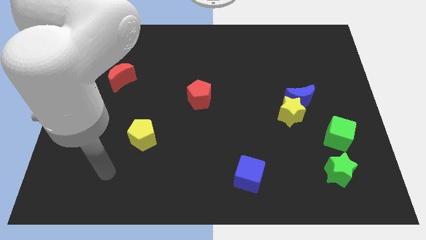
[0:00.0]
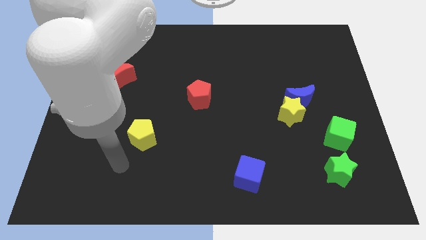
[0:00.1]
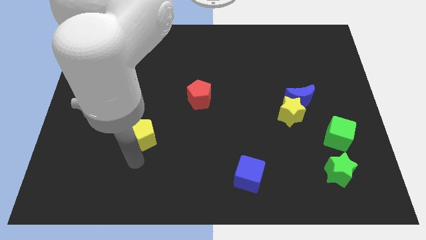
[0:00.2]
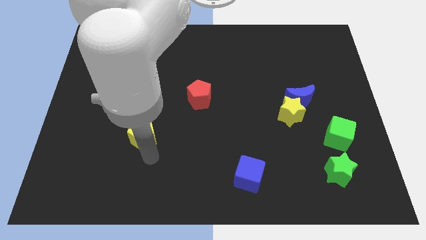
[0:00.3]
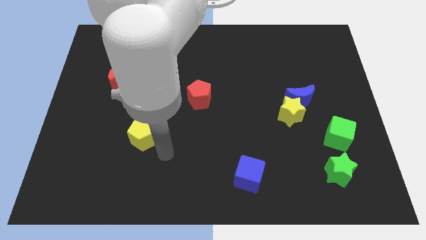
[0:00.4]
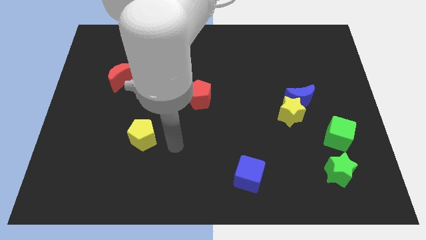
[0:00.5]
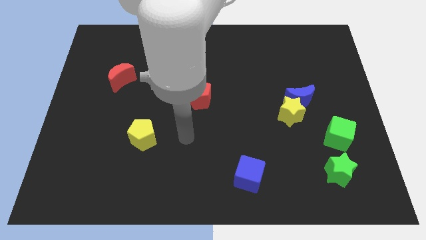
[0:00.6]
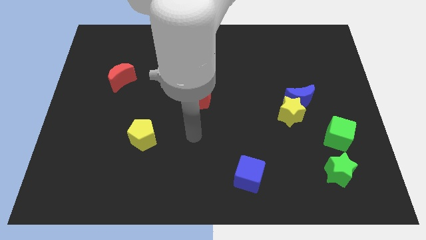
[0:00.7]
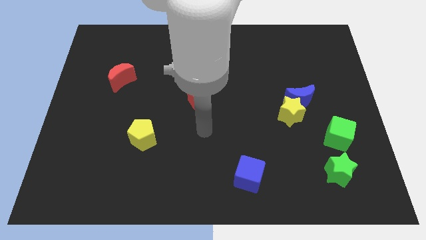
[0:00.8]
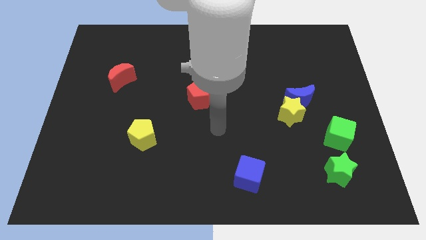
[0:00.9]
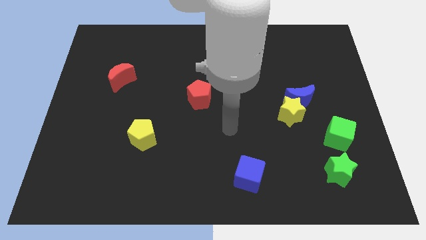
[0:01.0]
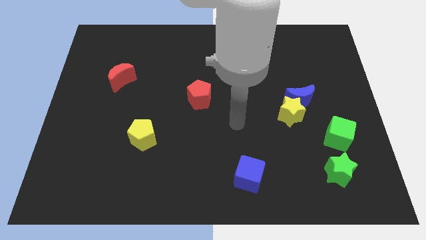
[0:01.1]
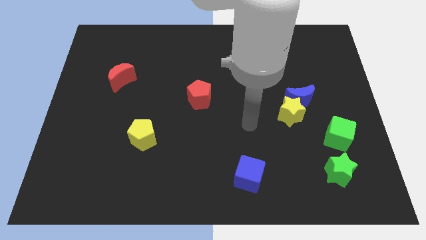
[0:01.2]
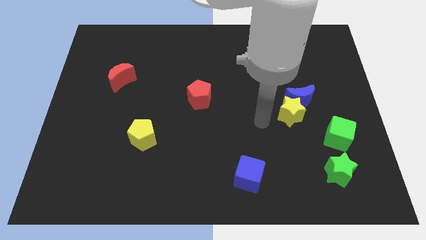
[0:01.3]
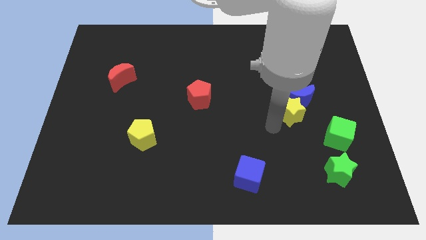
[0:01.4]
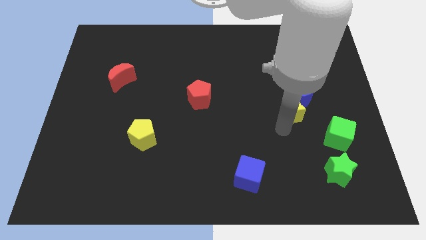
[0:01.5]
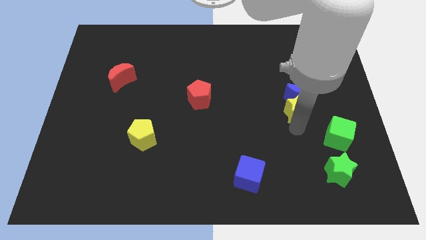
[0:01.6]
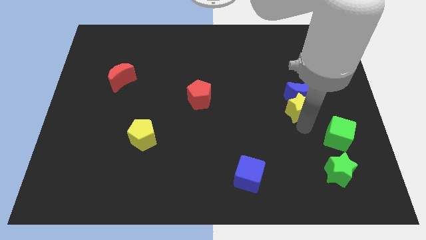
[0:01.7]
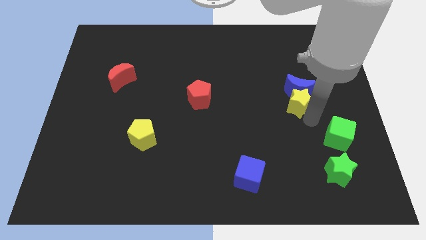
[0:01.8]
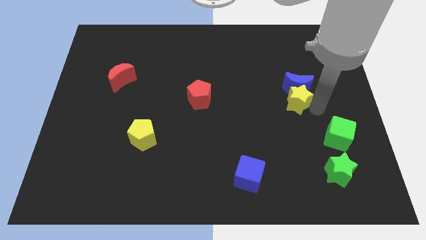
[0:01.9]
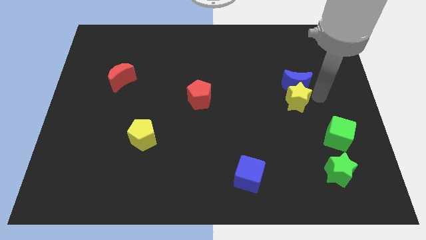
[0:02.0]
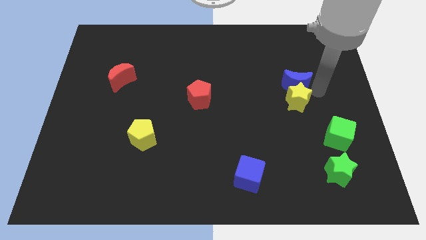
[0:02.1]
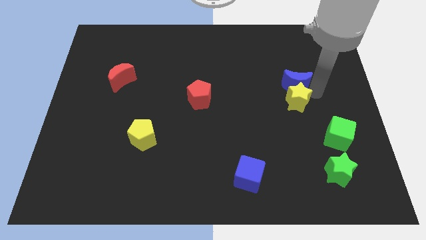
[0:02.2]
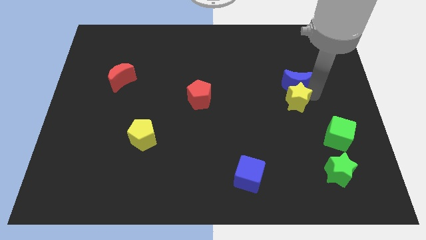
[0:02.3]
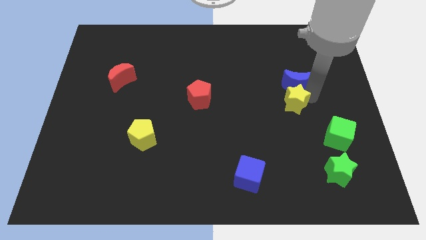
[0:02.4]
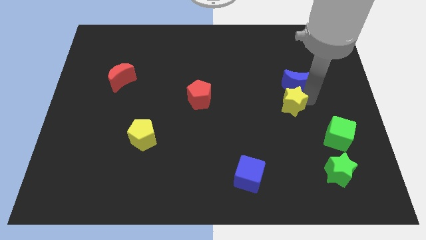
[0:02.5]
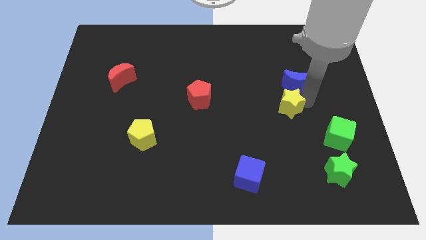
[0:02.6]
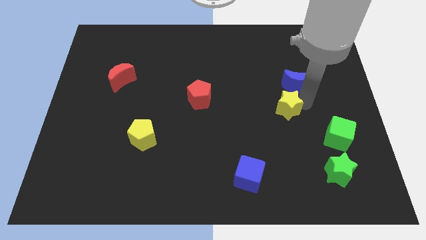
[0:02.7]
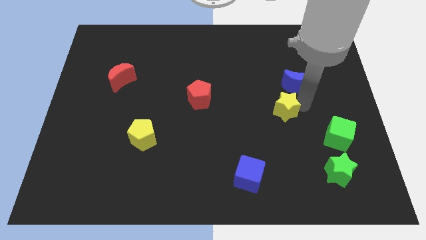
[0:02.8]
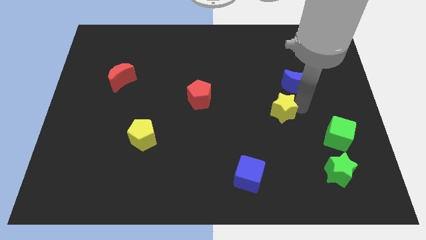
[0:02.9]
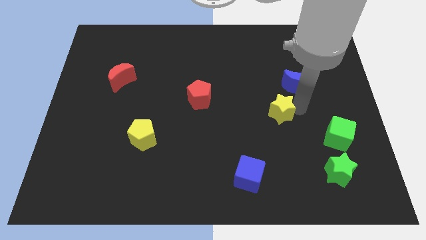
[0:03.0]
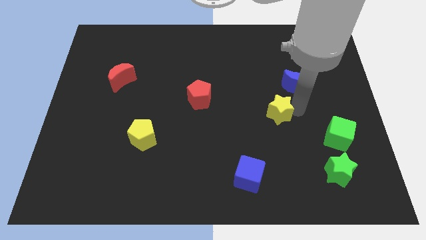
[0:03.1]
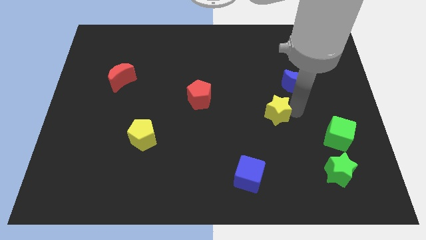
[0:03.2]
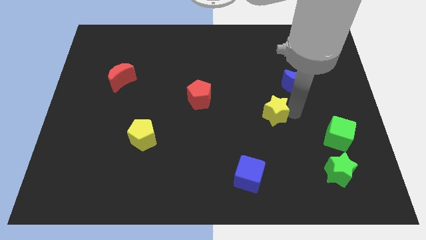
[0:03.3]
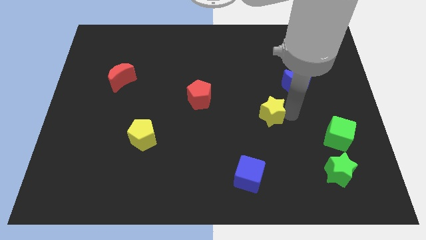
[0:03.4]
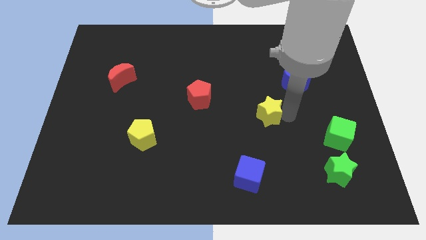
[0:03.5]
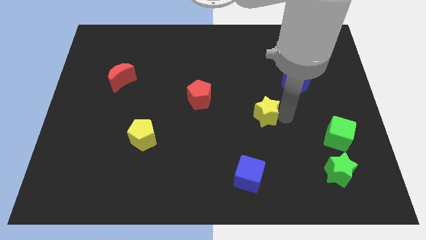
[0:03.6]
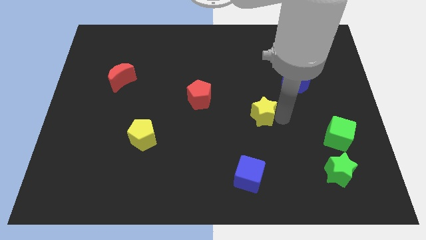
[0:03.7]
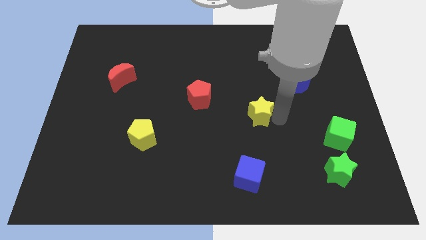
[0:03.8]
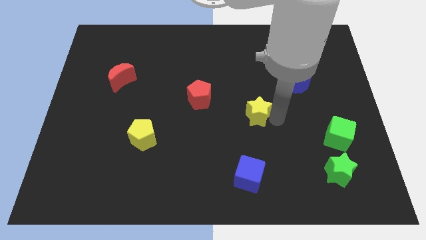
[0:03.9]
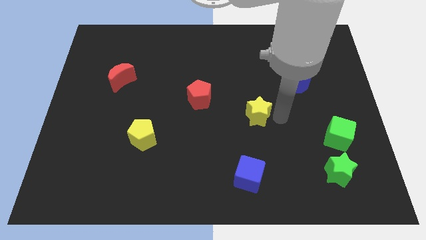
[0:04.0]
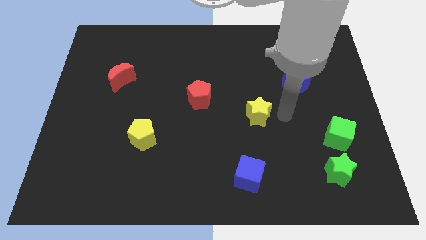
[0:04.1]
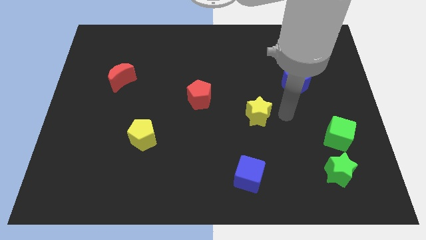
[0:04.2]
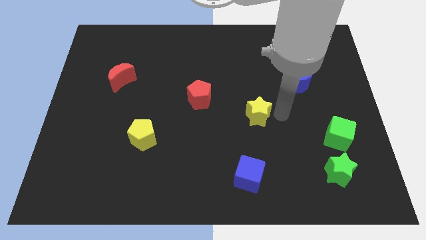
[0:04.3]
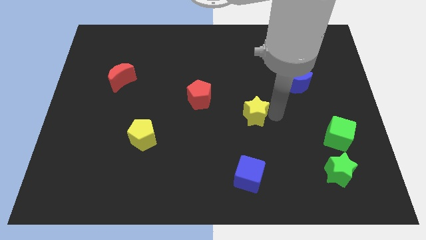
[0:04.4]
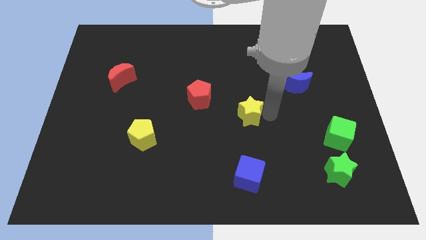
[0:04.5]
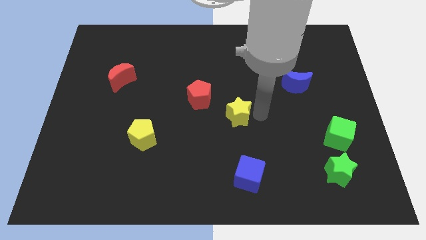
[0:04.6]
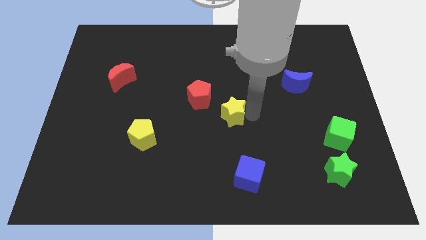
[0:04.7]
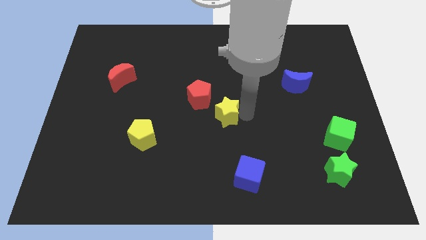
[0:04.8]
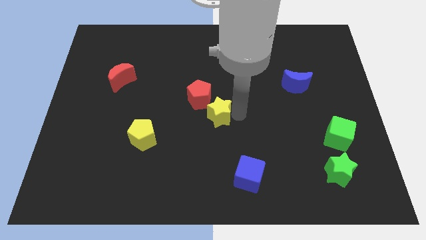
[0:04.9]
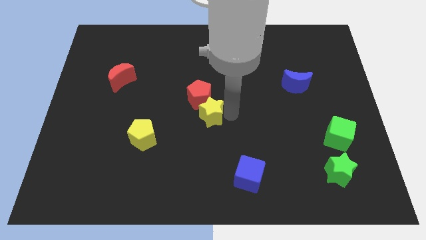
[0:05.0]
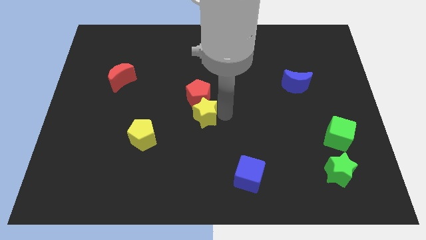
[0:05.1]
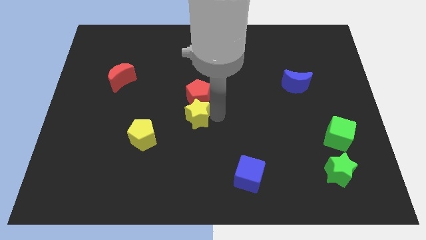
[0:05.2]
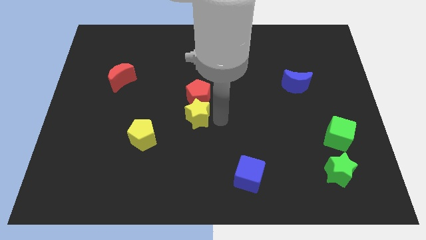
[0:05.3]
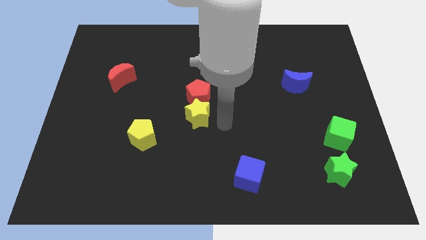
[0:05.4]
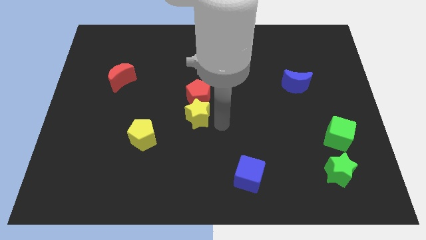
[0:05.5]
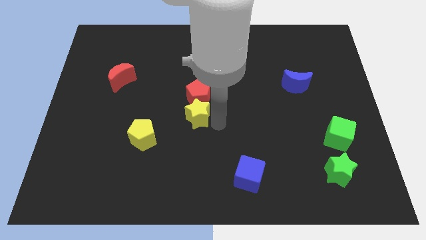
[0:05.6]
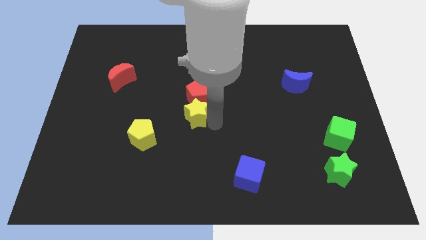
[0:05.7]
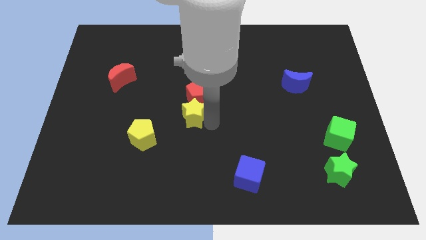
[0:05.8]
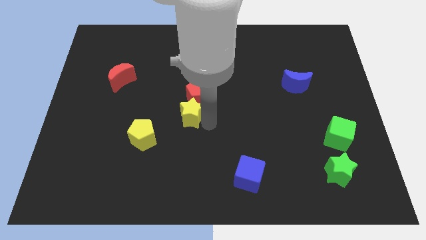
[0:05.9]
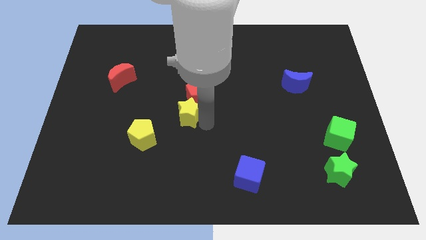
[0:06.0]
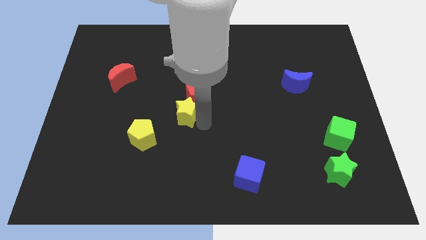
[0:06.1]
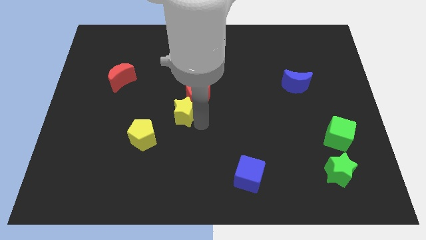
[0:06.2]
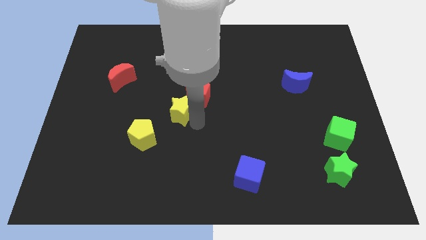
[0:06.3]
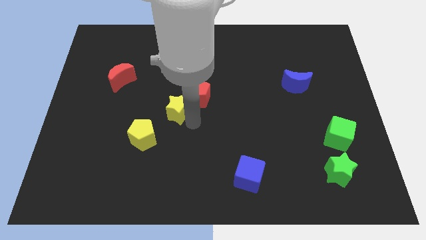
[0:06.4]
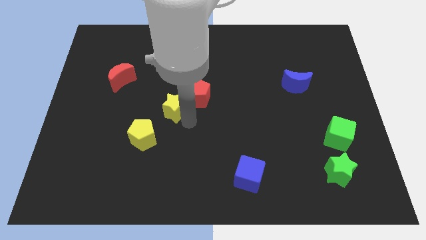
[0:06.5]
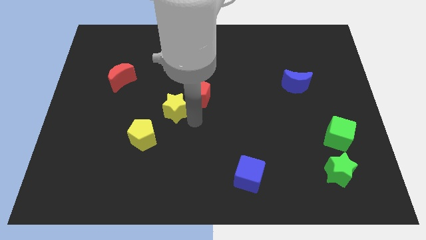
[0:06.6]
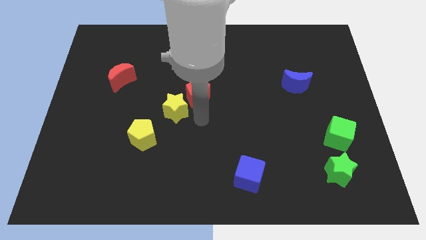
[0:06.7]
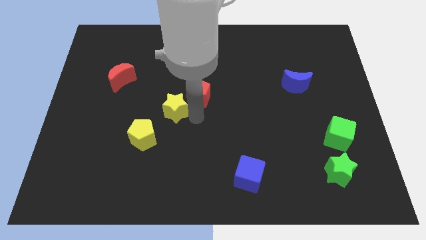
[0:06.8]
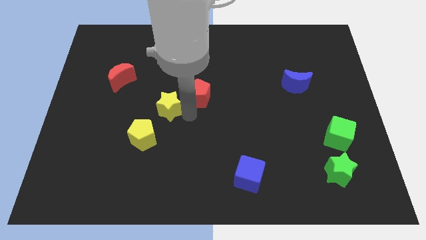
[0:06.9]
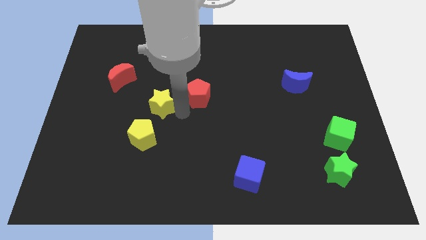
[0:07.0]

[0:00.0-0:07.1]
move the yellow star above the yellow pentagon
